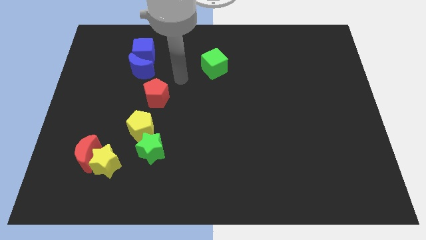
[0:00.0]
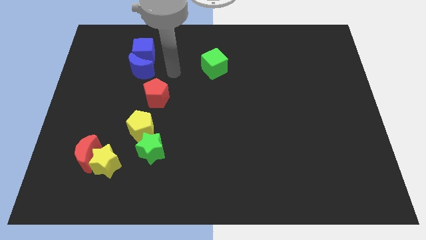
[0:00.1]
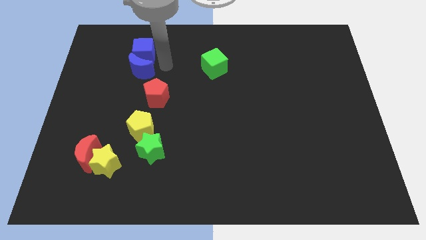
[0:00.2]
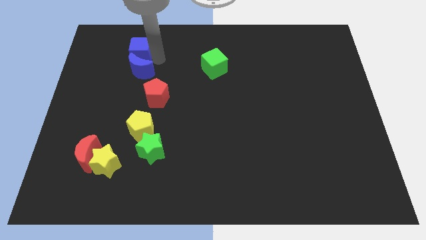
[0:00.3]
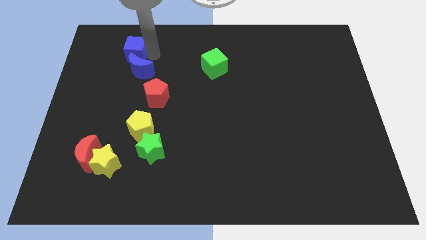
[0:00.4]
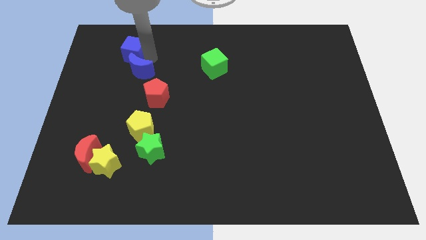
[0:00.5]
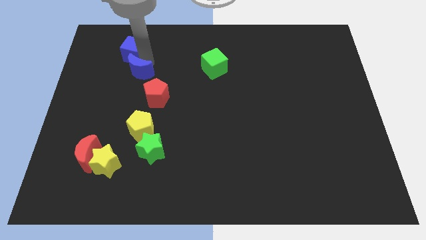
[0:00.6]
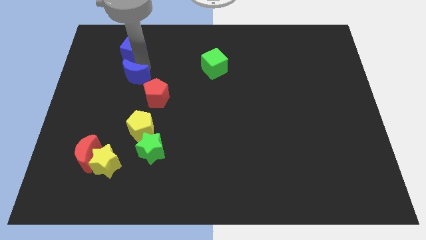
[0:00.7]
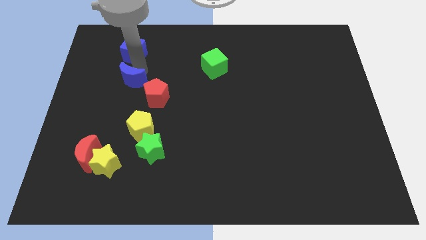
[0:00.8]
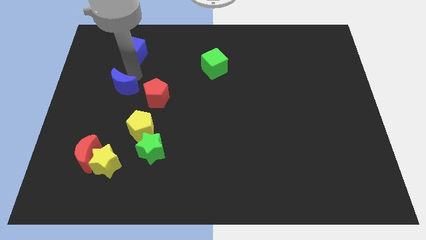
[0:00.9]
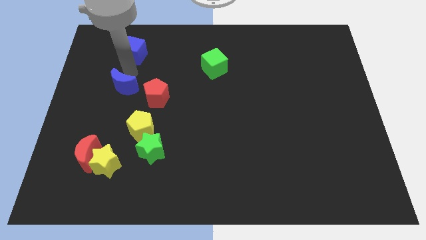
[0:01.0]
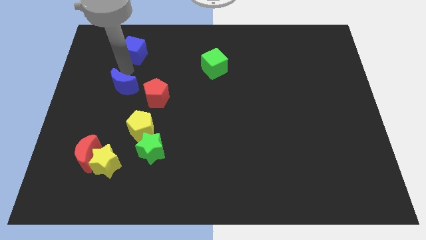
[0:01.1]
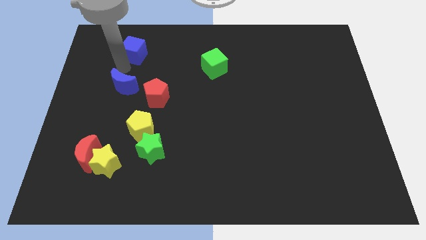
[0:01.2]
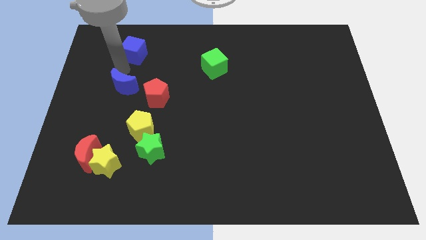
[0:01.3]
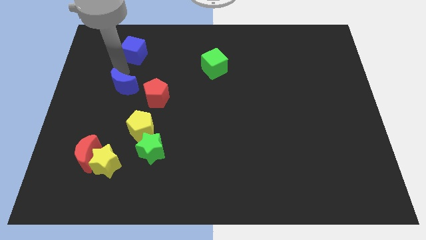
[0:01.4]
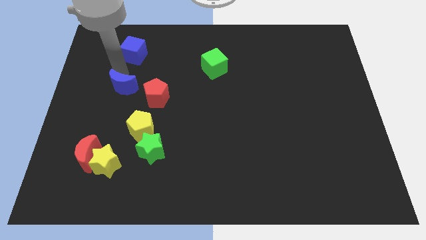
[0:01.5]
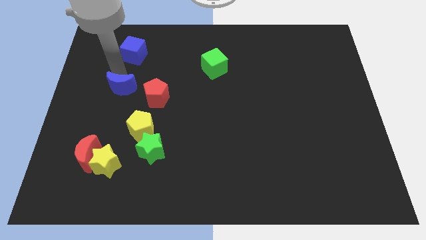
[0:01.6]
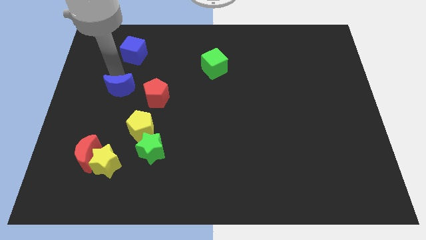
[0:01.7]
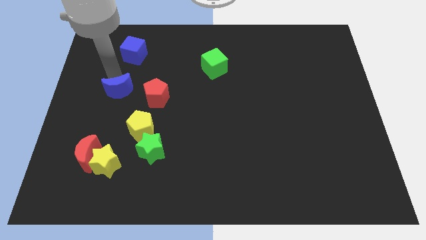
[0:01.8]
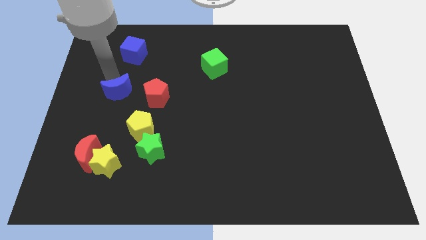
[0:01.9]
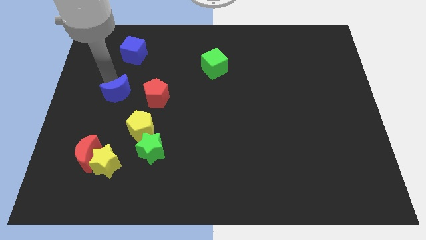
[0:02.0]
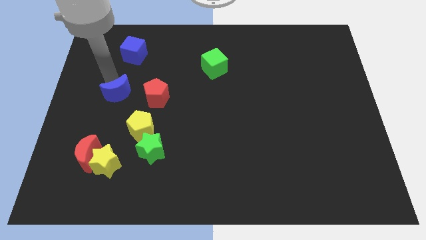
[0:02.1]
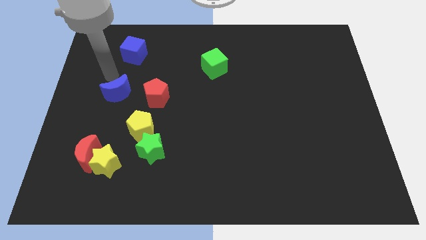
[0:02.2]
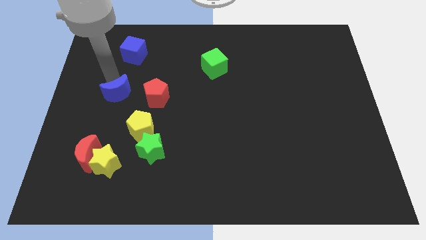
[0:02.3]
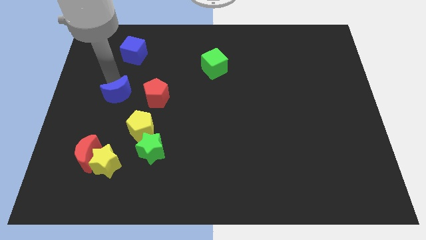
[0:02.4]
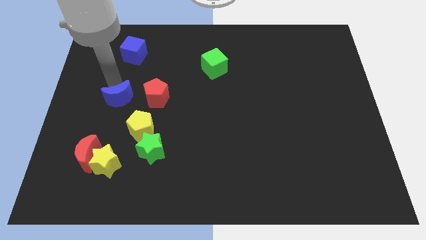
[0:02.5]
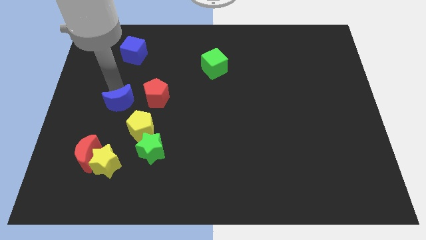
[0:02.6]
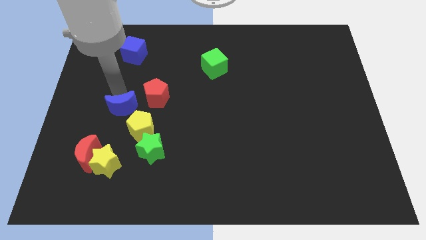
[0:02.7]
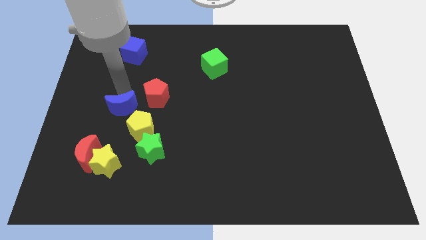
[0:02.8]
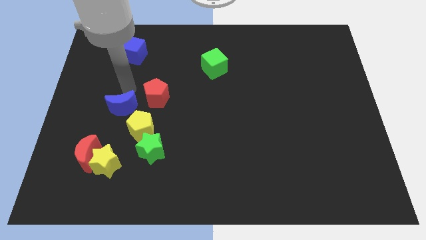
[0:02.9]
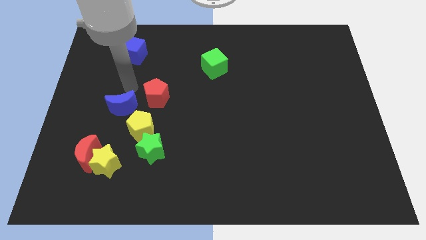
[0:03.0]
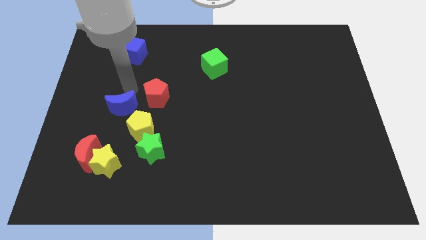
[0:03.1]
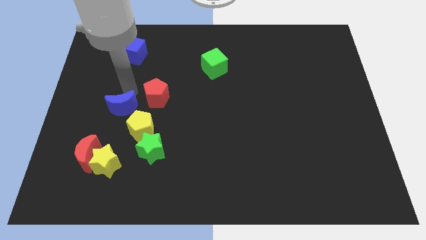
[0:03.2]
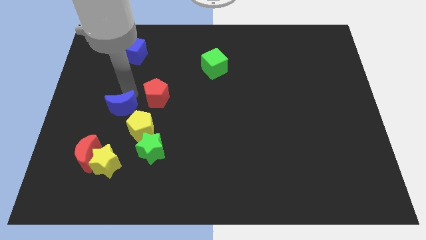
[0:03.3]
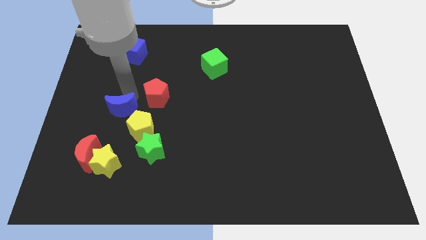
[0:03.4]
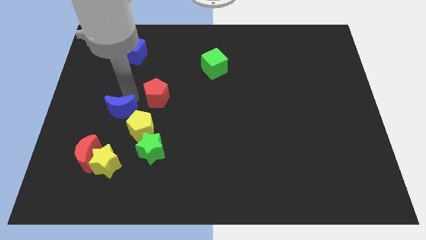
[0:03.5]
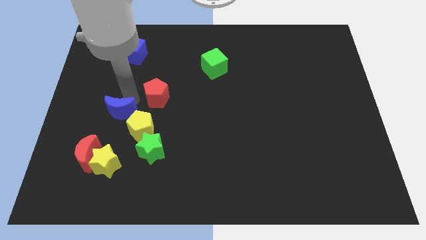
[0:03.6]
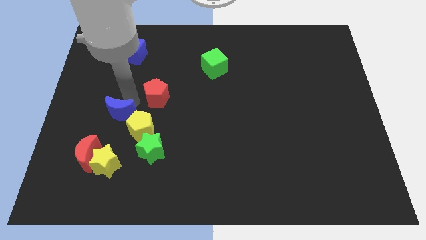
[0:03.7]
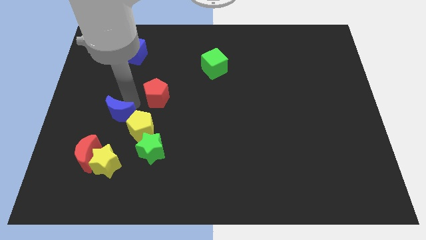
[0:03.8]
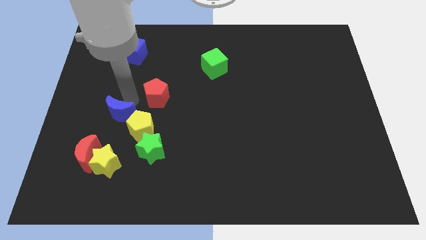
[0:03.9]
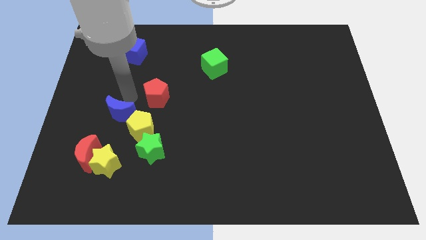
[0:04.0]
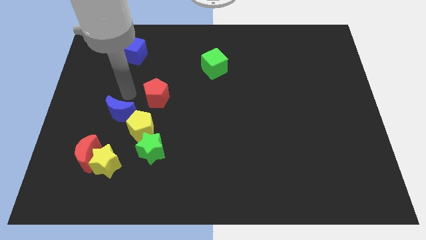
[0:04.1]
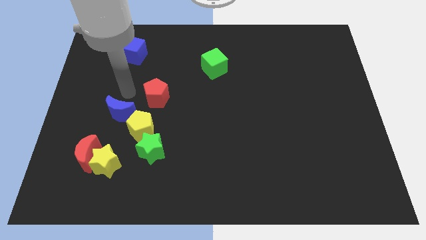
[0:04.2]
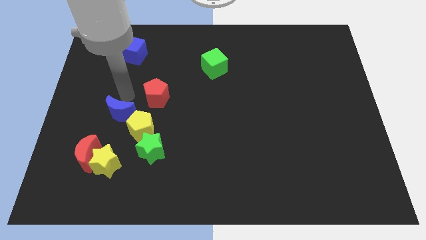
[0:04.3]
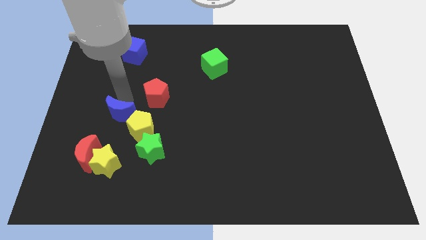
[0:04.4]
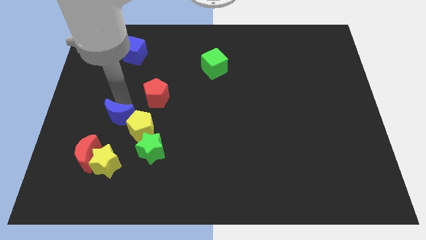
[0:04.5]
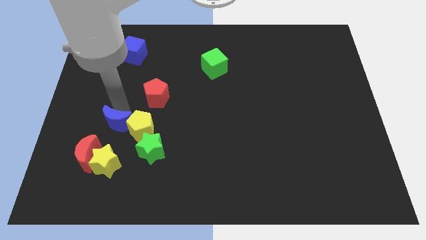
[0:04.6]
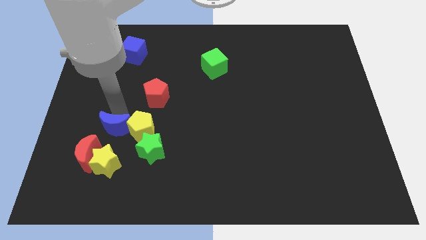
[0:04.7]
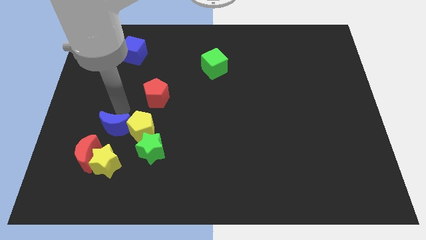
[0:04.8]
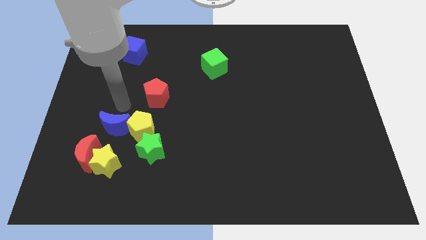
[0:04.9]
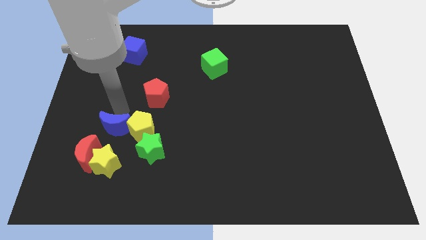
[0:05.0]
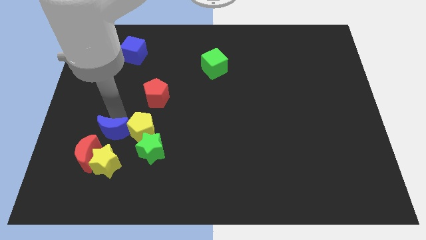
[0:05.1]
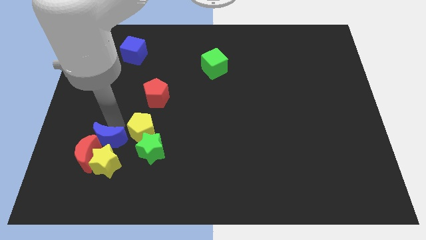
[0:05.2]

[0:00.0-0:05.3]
push the blue moon towards the yellow star

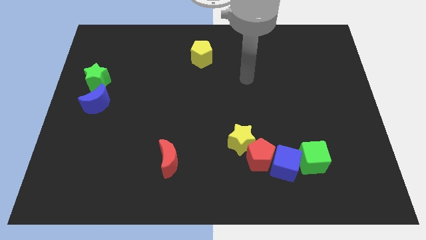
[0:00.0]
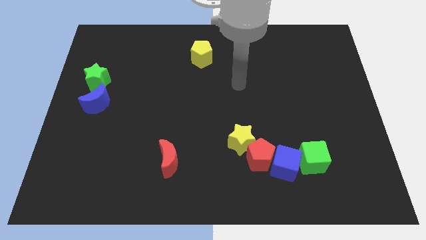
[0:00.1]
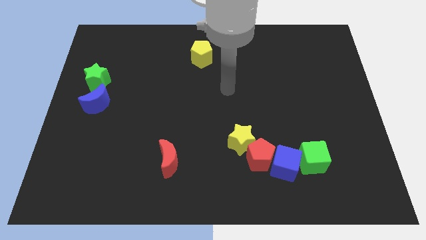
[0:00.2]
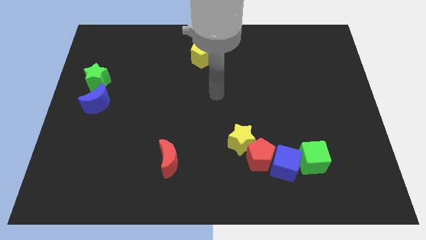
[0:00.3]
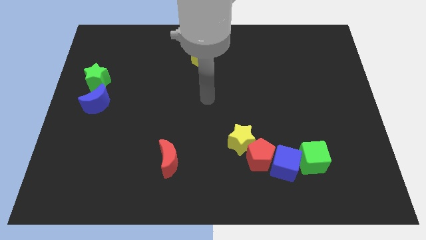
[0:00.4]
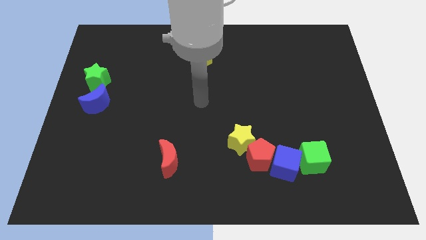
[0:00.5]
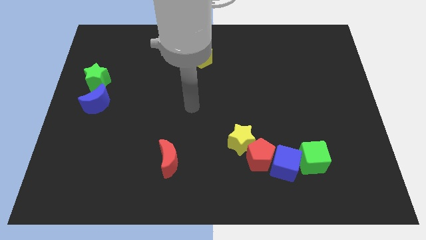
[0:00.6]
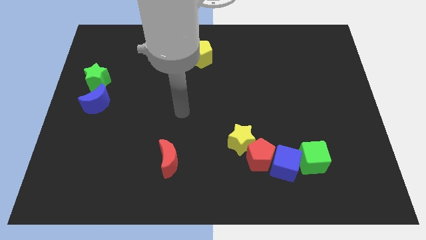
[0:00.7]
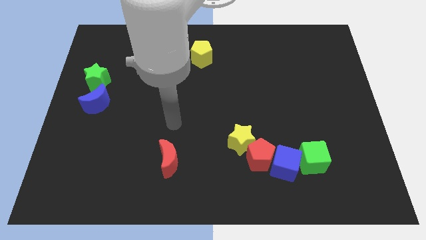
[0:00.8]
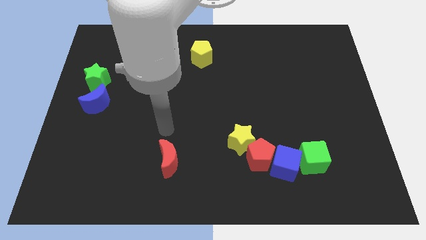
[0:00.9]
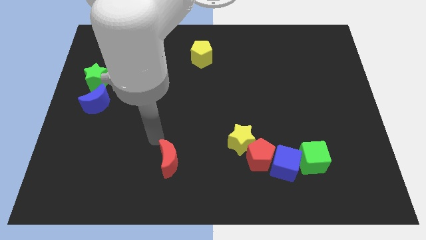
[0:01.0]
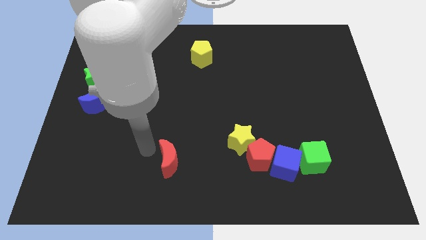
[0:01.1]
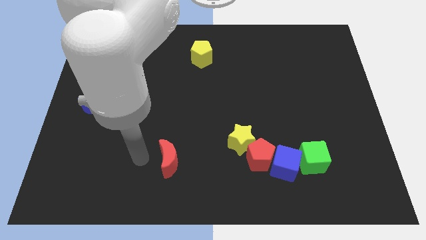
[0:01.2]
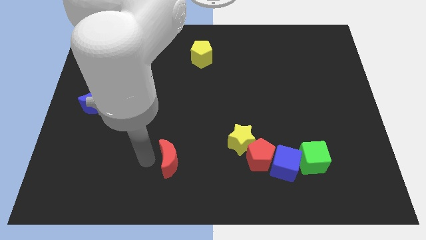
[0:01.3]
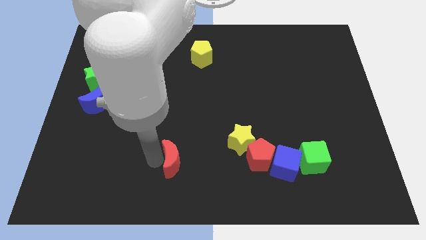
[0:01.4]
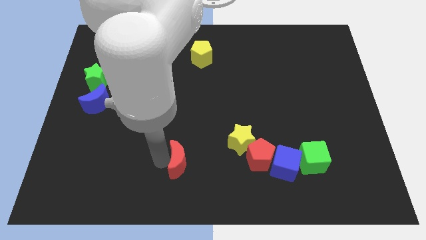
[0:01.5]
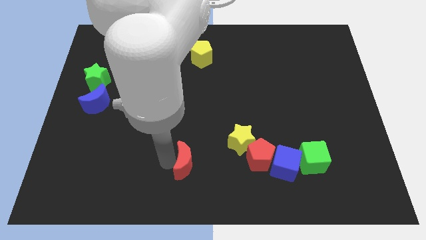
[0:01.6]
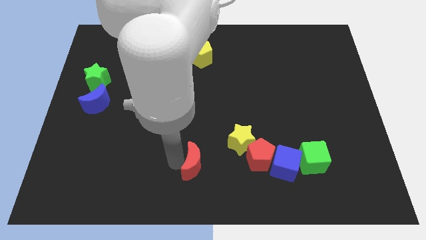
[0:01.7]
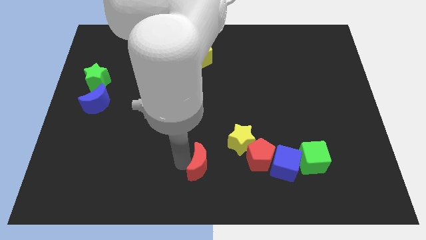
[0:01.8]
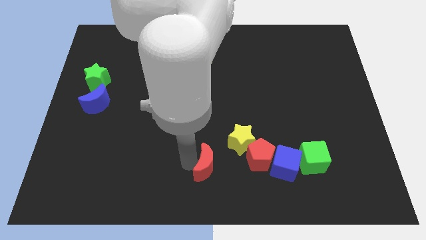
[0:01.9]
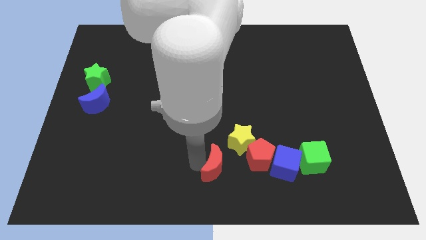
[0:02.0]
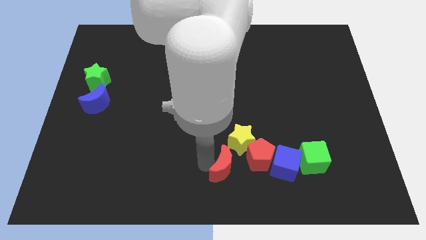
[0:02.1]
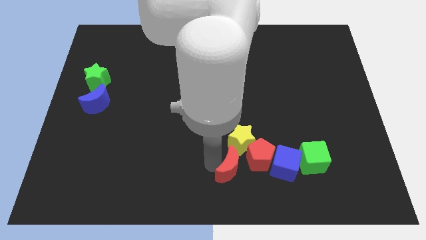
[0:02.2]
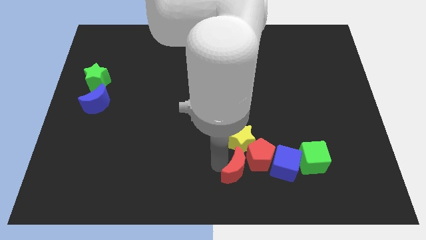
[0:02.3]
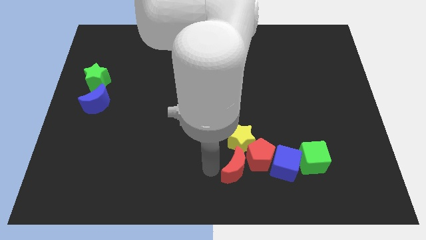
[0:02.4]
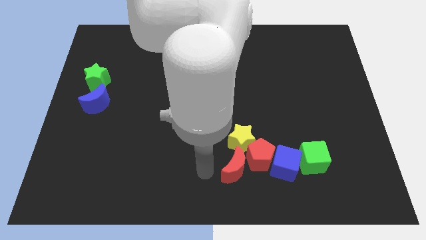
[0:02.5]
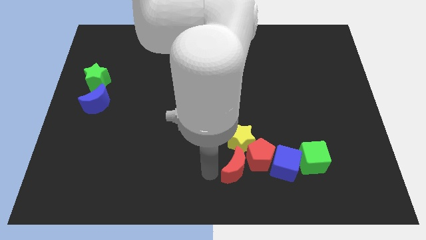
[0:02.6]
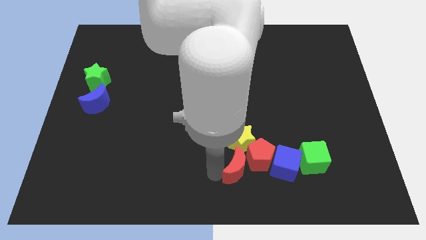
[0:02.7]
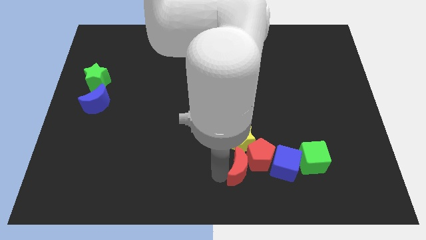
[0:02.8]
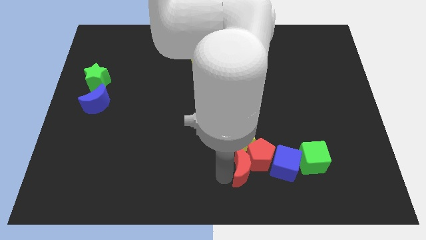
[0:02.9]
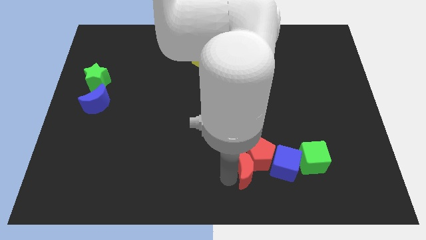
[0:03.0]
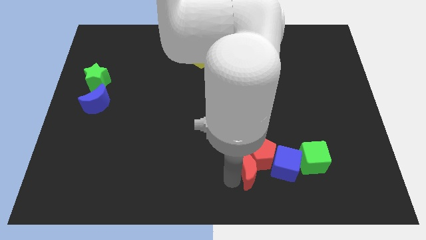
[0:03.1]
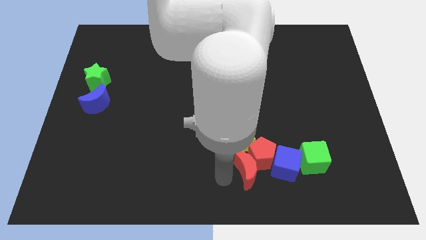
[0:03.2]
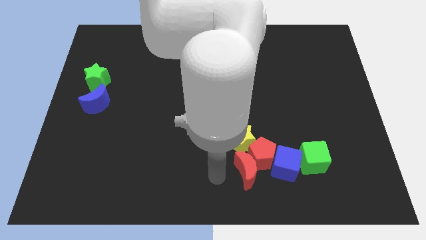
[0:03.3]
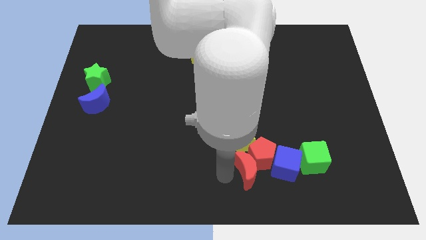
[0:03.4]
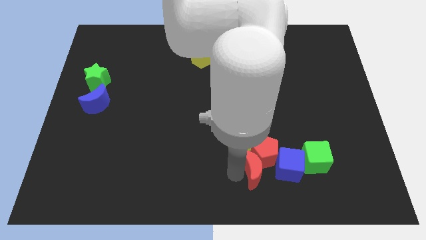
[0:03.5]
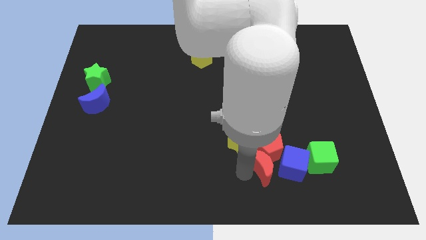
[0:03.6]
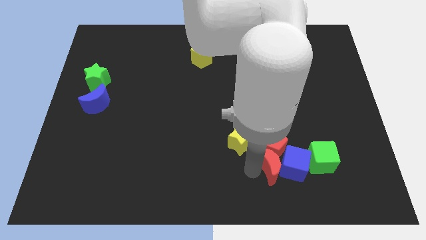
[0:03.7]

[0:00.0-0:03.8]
push the red moon close to the blue cube
